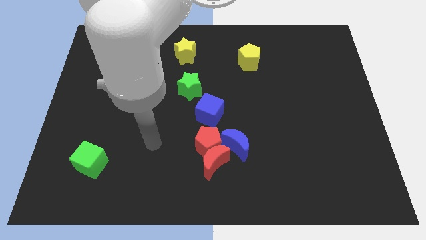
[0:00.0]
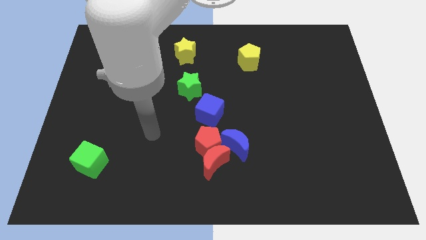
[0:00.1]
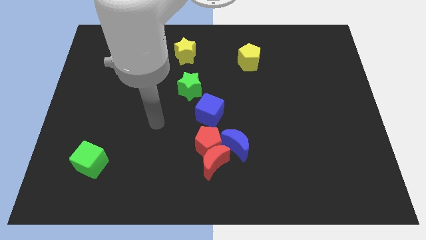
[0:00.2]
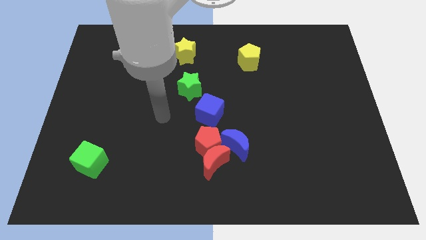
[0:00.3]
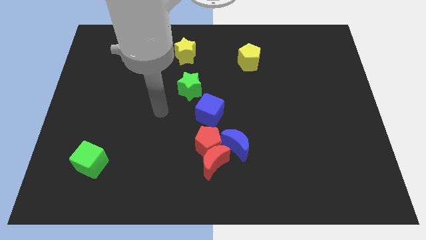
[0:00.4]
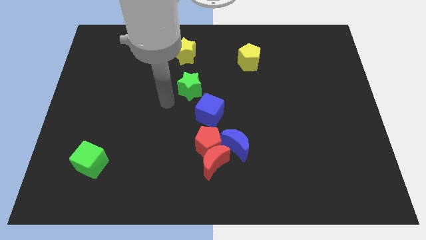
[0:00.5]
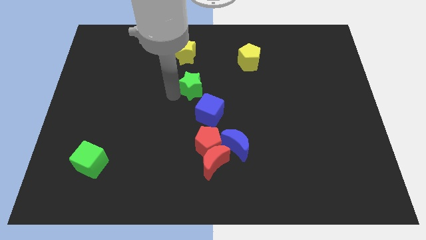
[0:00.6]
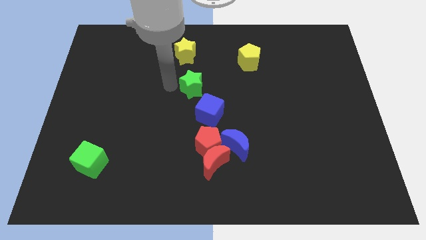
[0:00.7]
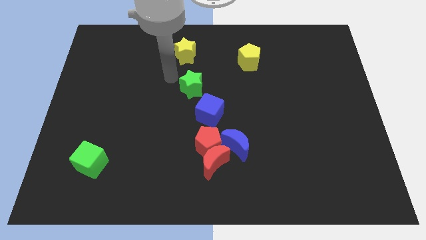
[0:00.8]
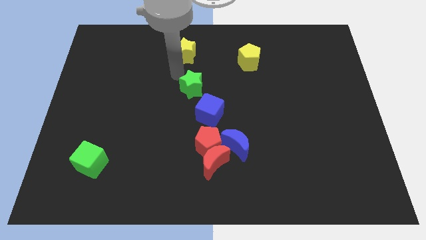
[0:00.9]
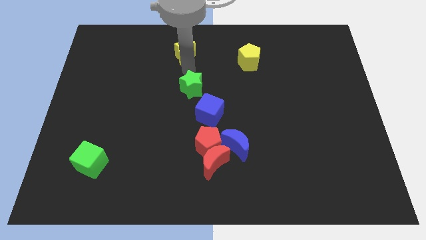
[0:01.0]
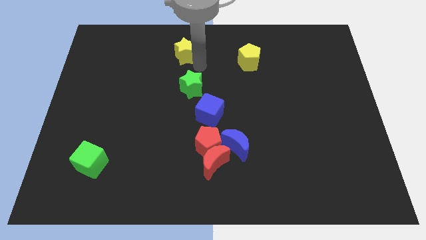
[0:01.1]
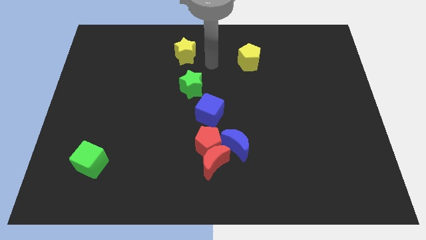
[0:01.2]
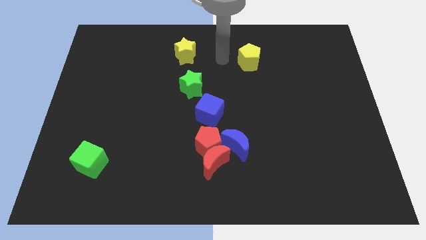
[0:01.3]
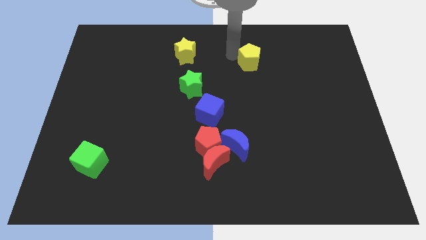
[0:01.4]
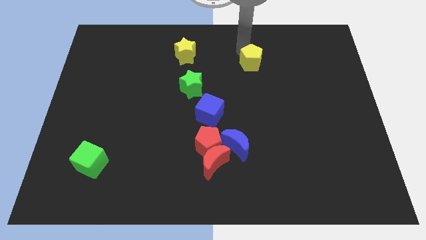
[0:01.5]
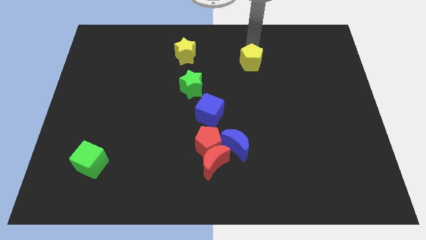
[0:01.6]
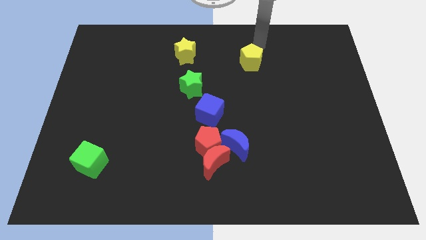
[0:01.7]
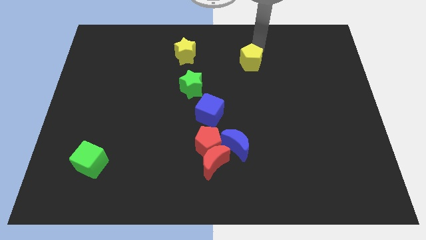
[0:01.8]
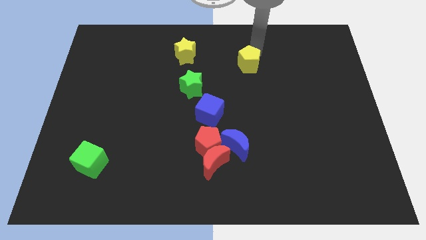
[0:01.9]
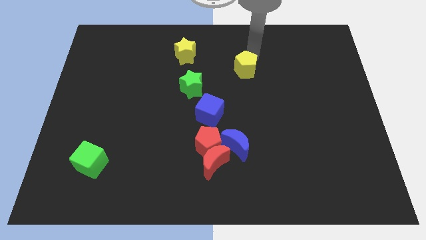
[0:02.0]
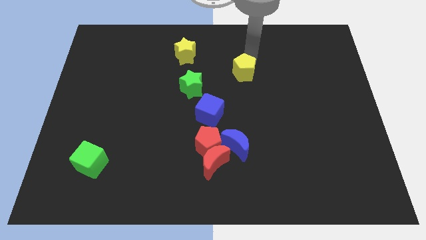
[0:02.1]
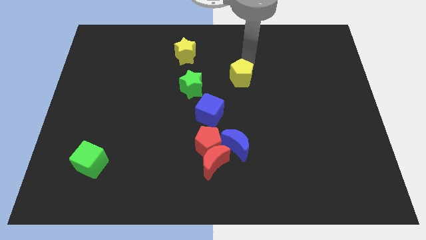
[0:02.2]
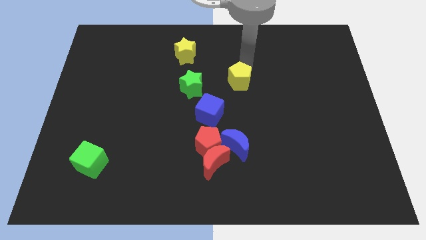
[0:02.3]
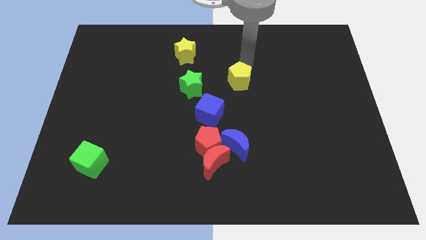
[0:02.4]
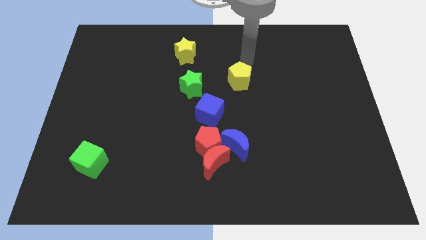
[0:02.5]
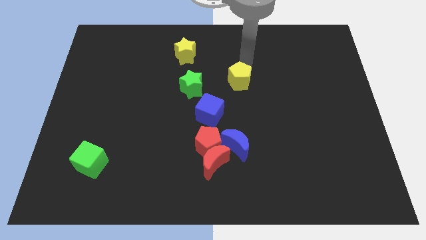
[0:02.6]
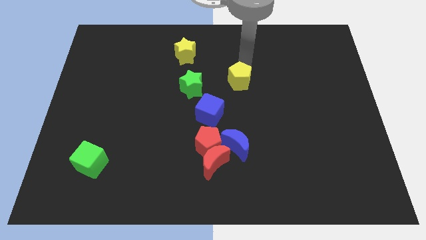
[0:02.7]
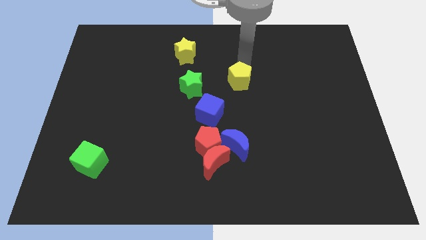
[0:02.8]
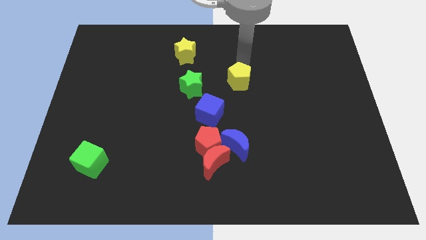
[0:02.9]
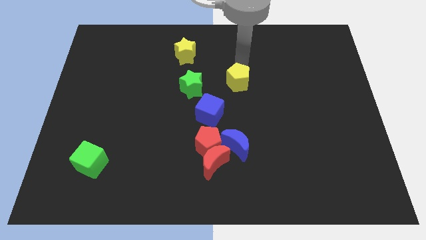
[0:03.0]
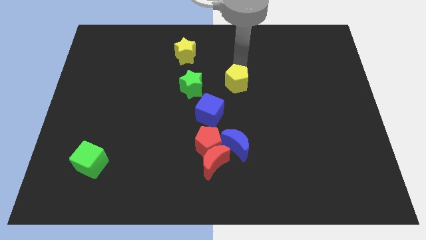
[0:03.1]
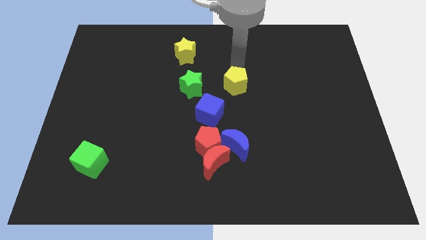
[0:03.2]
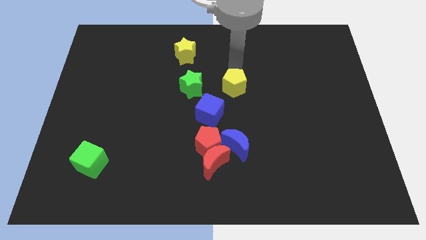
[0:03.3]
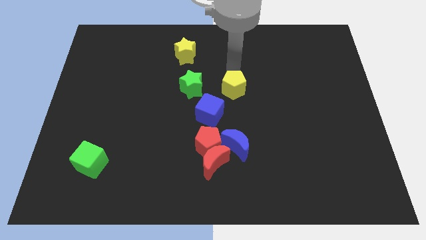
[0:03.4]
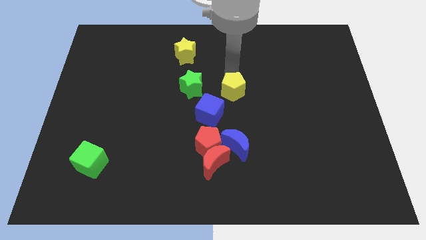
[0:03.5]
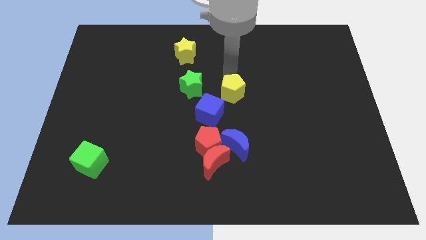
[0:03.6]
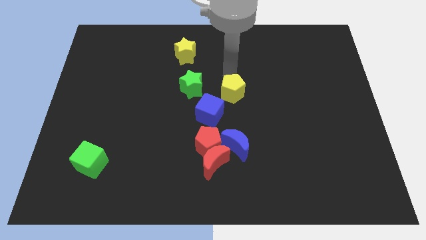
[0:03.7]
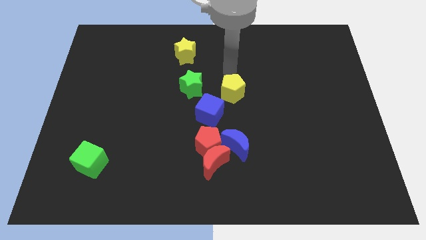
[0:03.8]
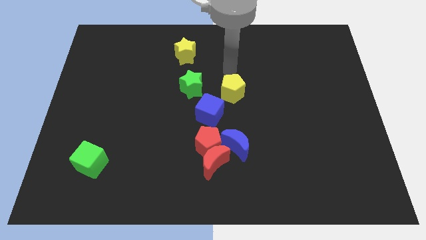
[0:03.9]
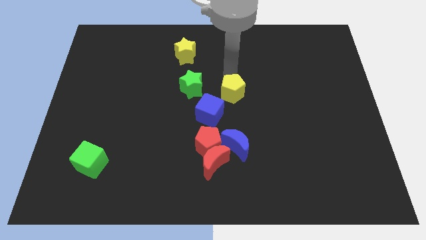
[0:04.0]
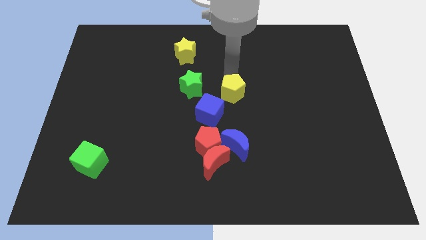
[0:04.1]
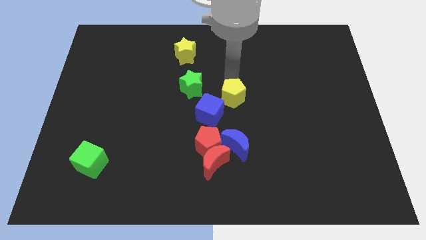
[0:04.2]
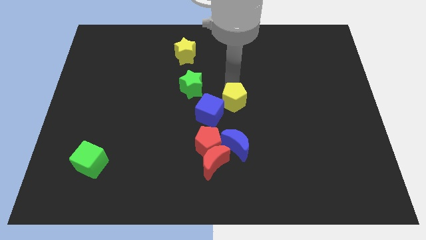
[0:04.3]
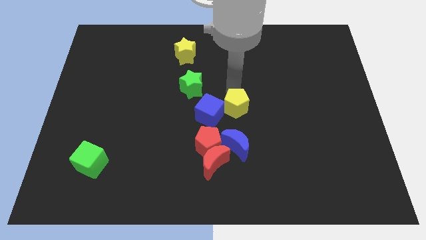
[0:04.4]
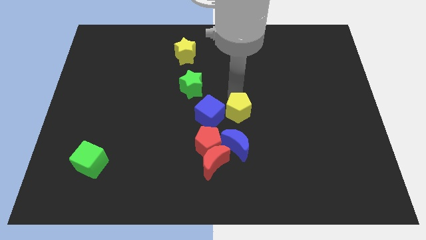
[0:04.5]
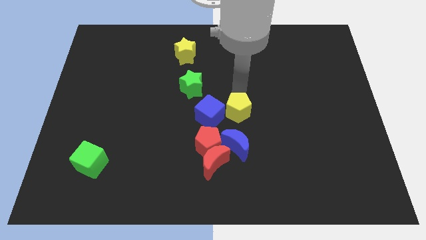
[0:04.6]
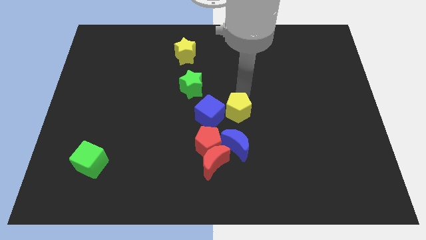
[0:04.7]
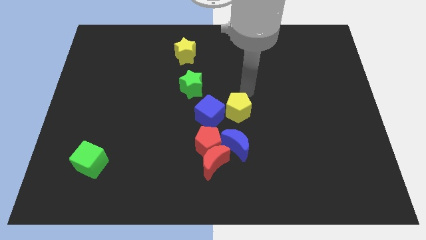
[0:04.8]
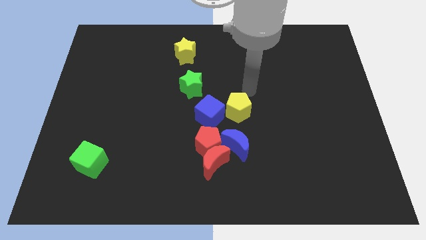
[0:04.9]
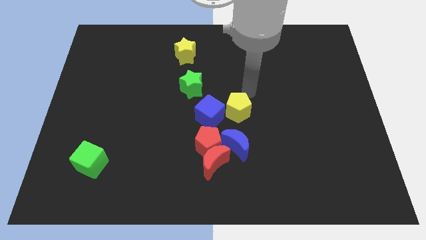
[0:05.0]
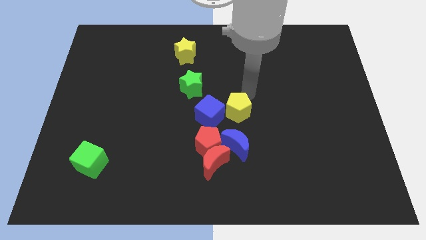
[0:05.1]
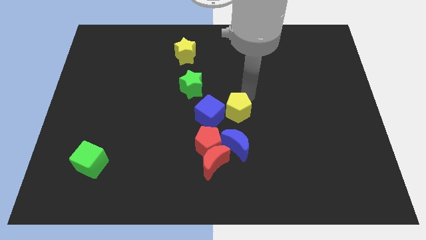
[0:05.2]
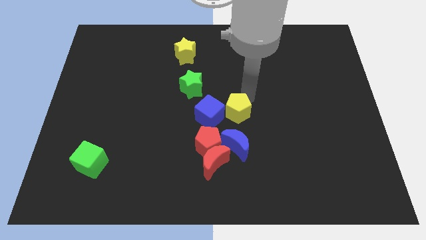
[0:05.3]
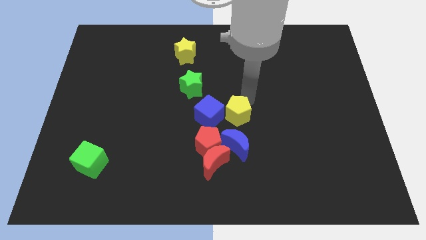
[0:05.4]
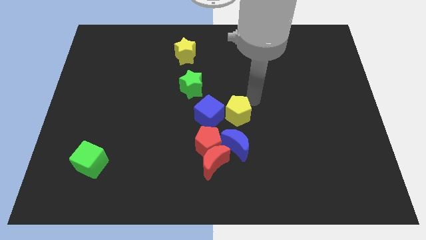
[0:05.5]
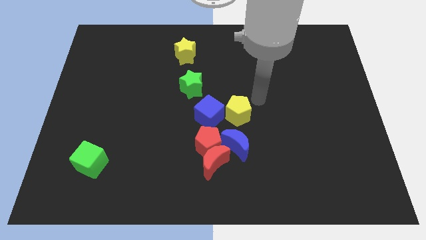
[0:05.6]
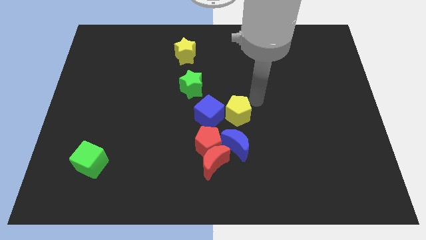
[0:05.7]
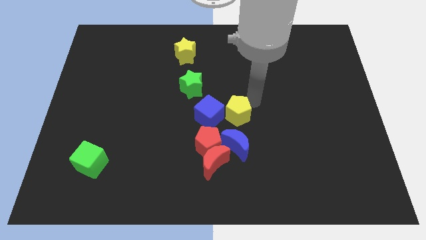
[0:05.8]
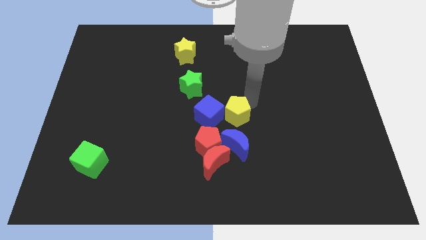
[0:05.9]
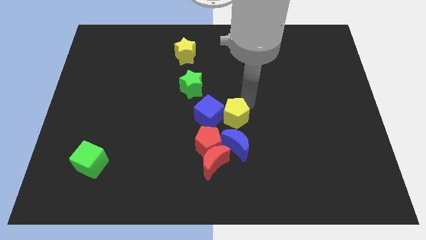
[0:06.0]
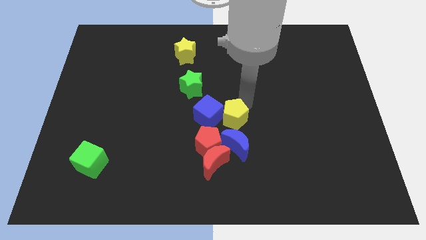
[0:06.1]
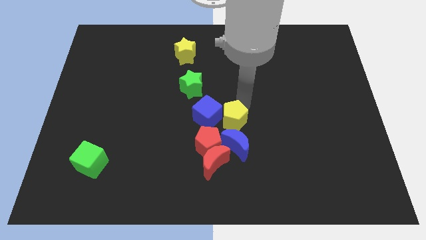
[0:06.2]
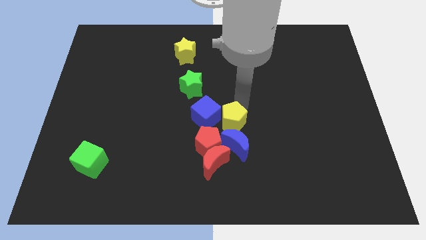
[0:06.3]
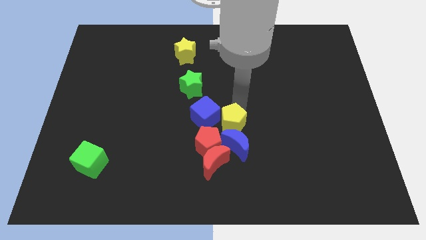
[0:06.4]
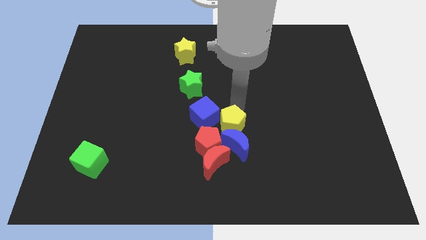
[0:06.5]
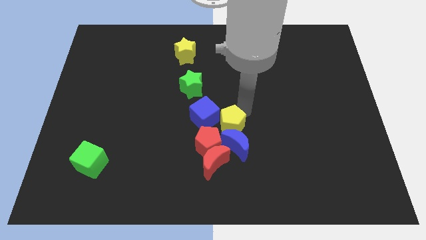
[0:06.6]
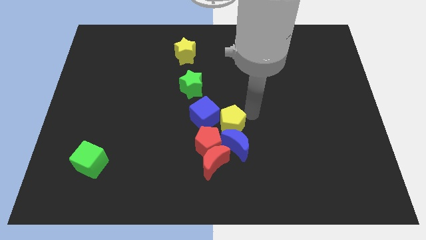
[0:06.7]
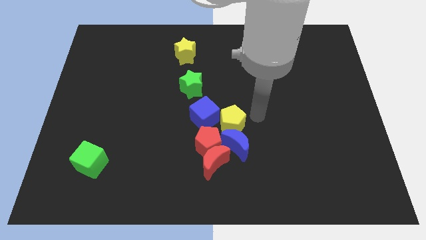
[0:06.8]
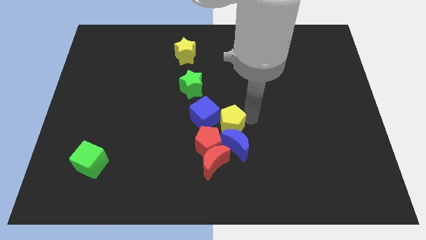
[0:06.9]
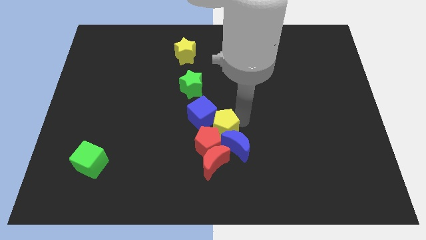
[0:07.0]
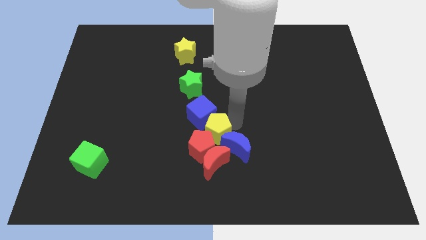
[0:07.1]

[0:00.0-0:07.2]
push the yellow pentagon left of the blue moon
